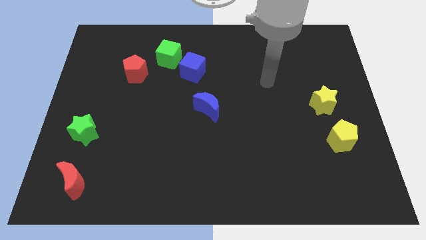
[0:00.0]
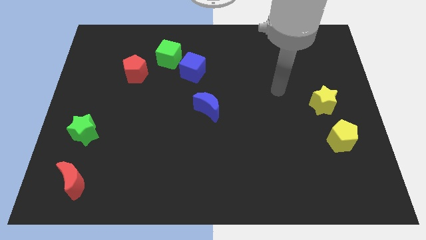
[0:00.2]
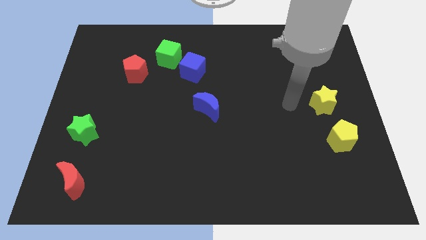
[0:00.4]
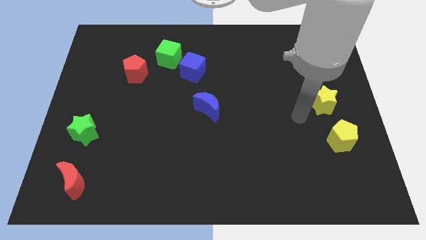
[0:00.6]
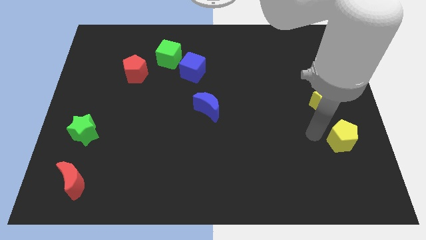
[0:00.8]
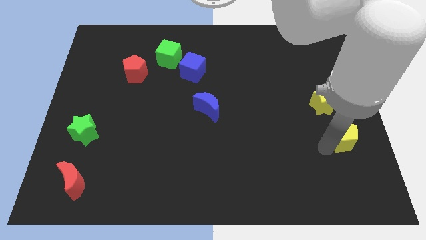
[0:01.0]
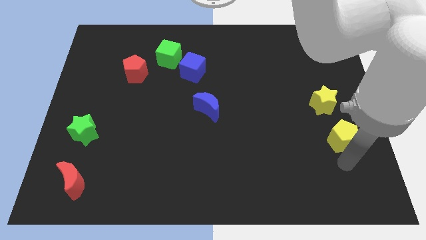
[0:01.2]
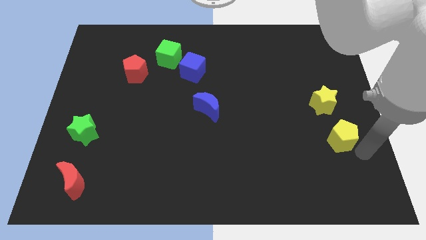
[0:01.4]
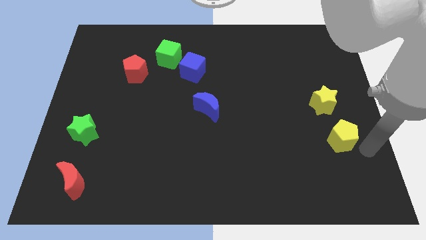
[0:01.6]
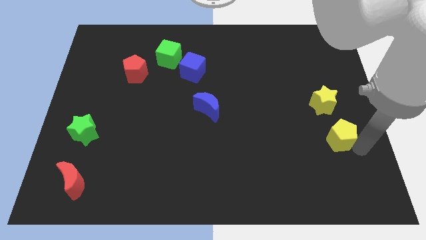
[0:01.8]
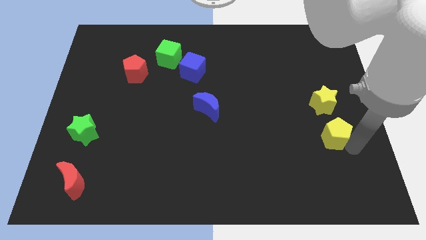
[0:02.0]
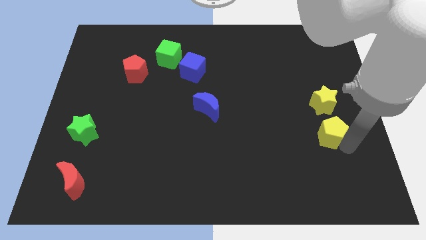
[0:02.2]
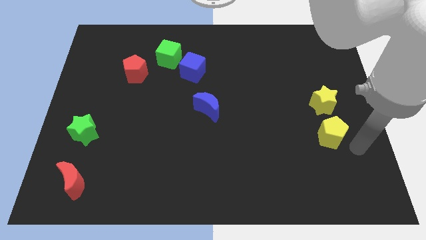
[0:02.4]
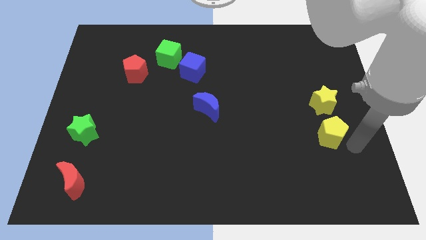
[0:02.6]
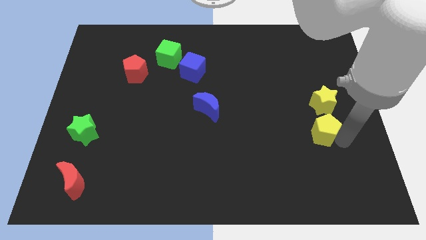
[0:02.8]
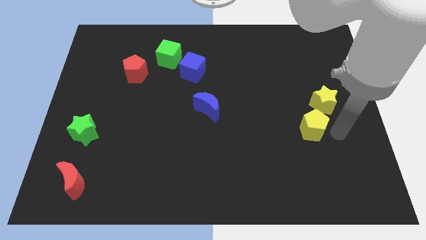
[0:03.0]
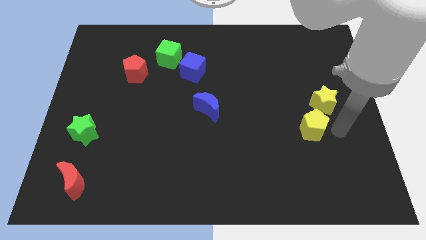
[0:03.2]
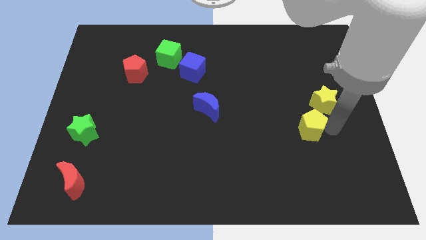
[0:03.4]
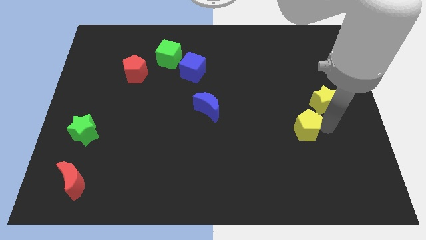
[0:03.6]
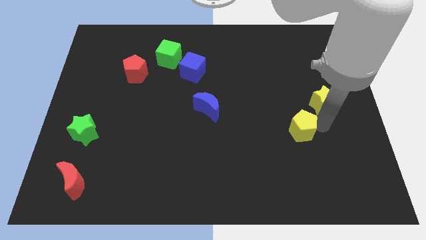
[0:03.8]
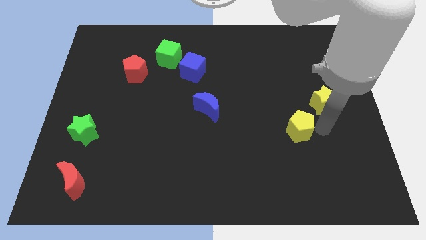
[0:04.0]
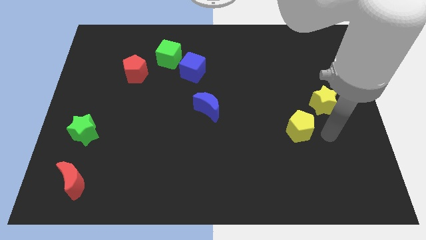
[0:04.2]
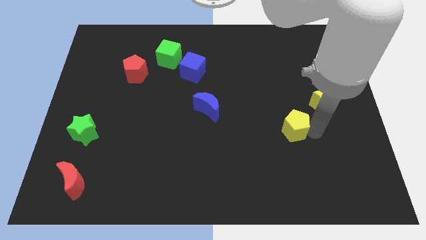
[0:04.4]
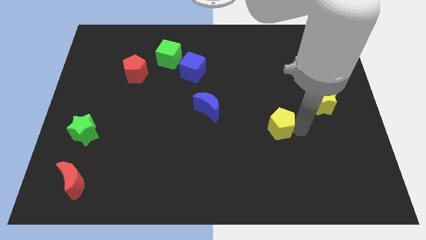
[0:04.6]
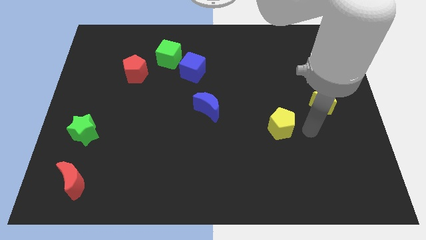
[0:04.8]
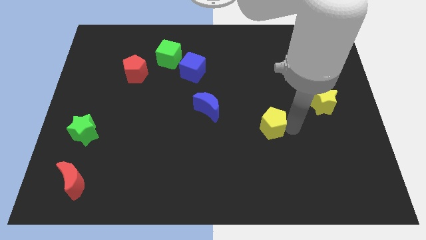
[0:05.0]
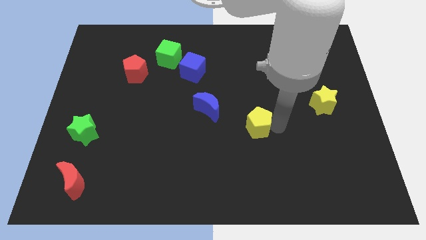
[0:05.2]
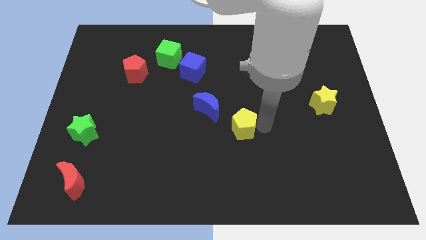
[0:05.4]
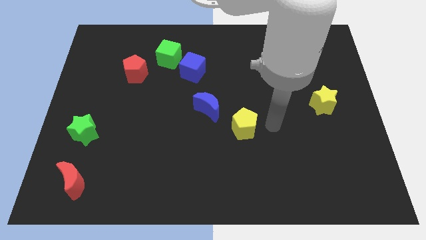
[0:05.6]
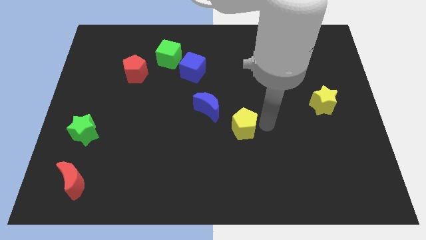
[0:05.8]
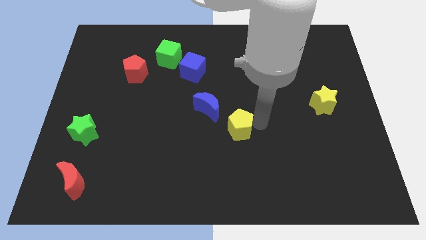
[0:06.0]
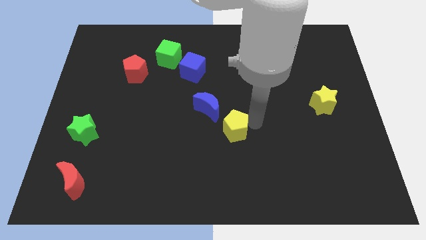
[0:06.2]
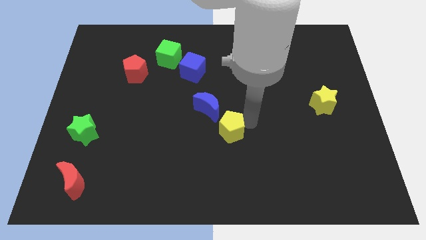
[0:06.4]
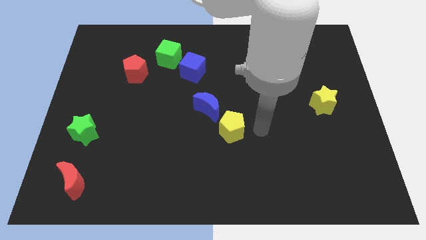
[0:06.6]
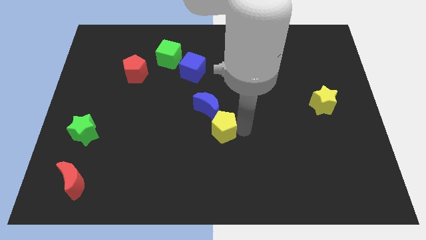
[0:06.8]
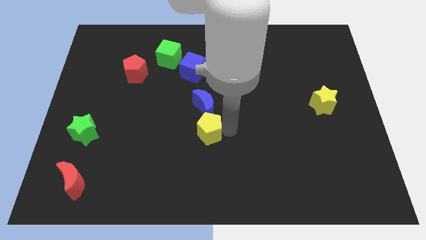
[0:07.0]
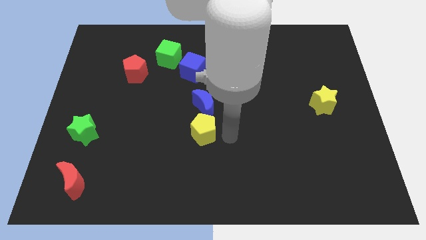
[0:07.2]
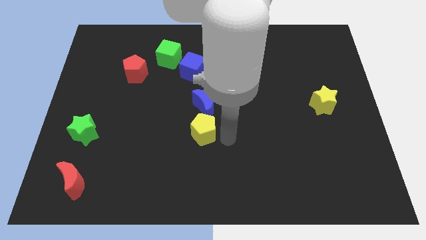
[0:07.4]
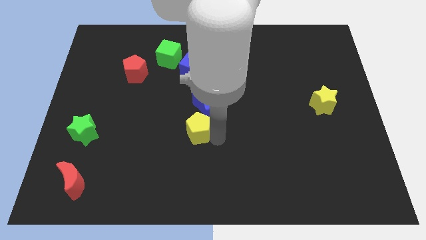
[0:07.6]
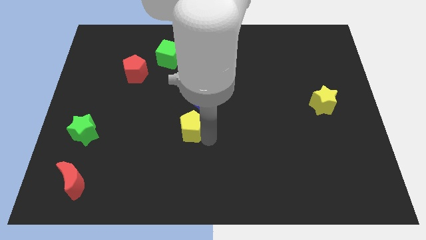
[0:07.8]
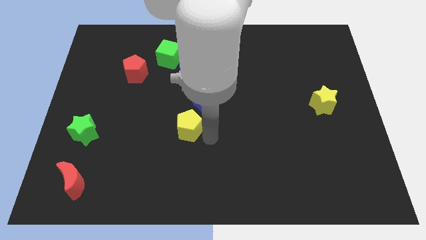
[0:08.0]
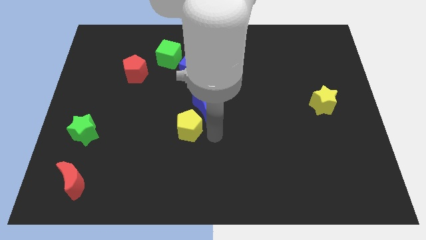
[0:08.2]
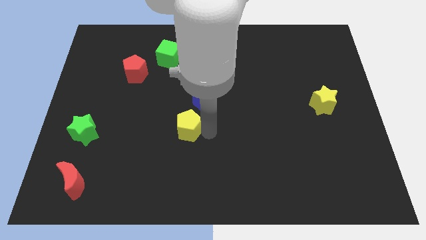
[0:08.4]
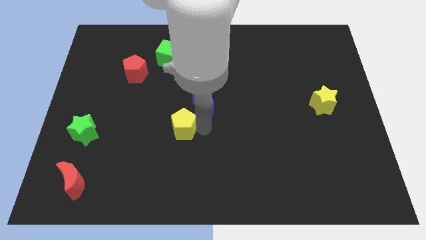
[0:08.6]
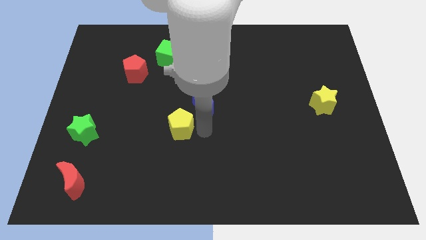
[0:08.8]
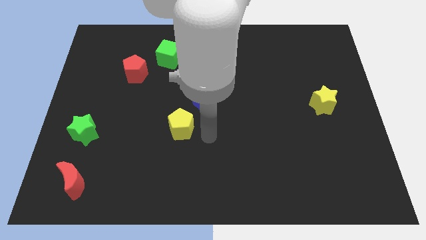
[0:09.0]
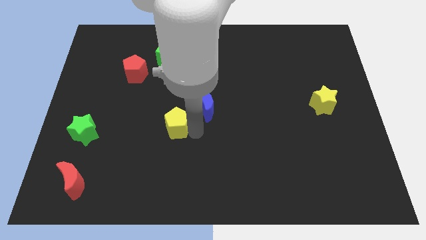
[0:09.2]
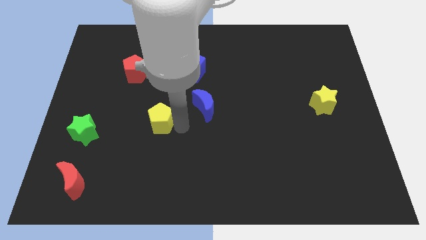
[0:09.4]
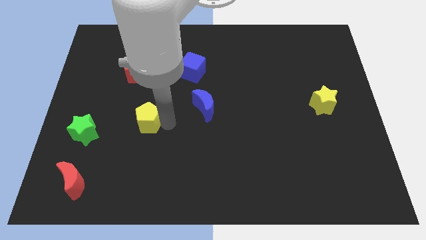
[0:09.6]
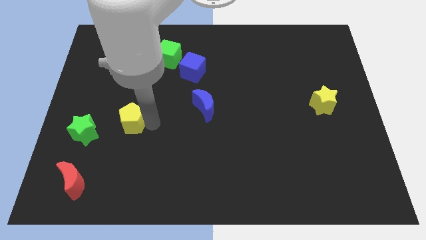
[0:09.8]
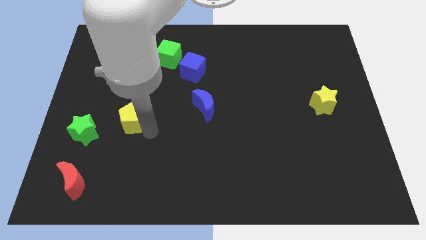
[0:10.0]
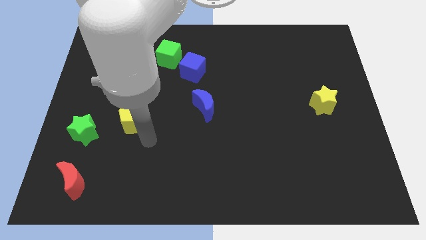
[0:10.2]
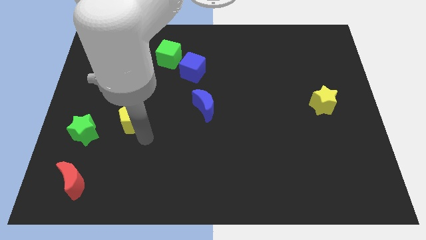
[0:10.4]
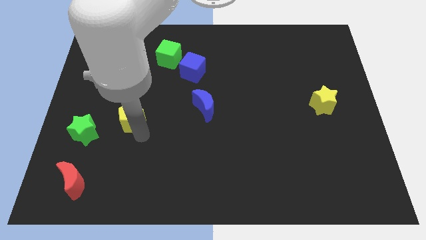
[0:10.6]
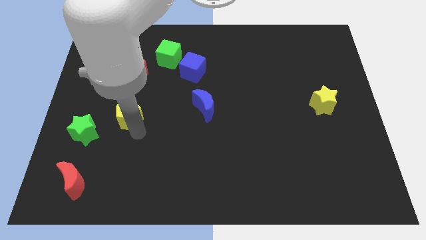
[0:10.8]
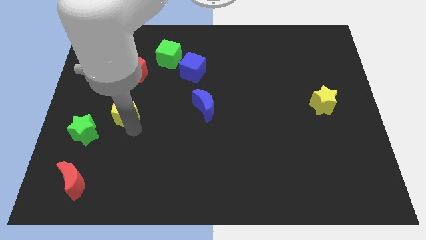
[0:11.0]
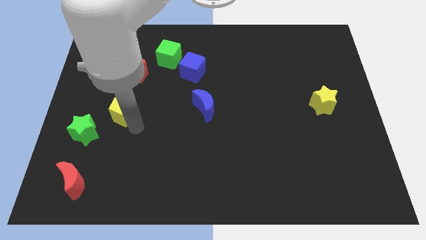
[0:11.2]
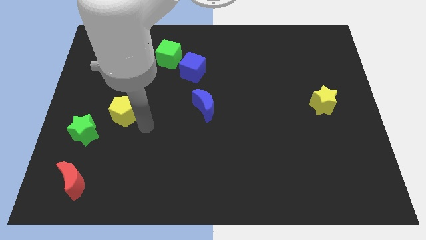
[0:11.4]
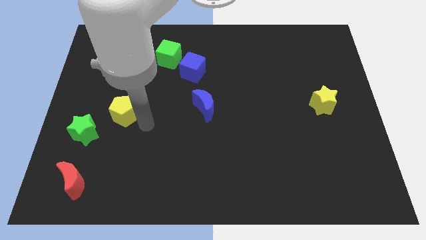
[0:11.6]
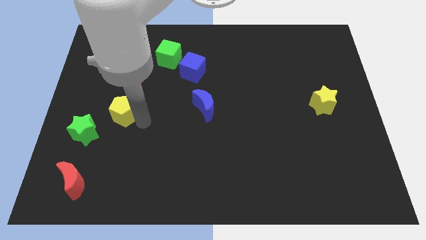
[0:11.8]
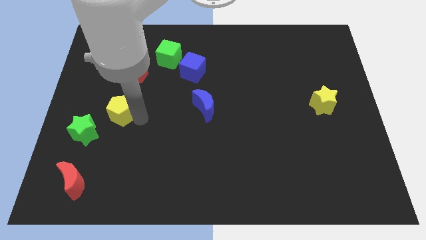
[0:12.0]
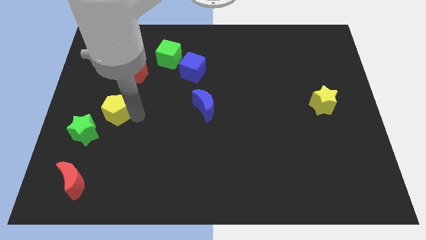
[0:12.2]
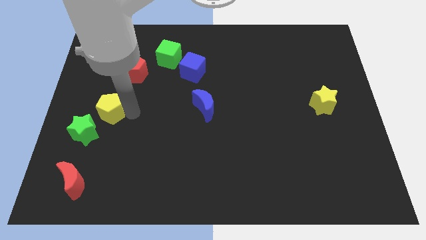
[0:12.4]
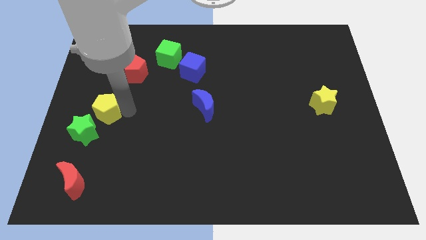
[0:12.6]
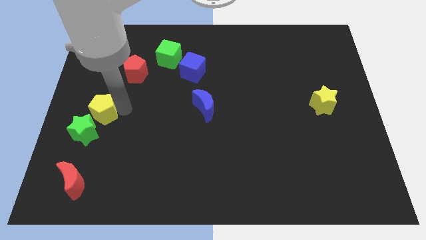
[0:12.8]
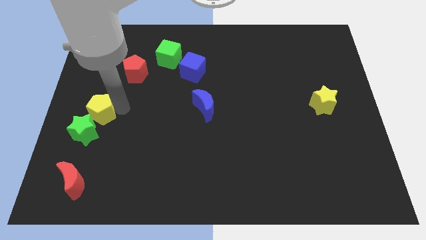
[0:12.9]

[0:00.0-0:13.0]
slide the yellow pentagon to the left side of the board
